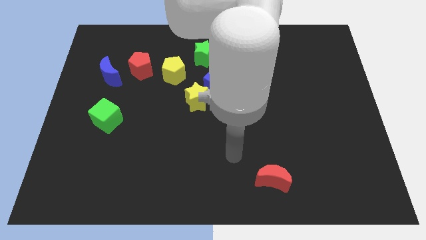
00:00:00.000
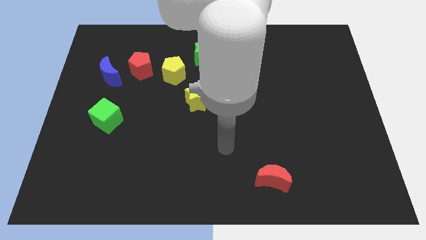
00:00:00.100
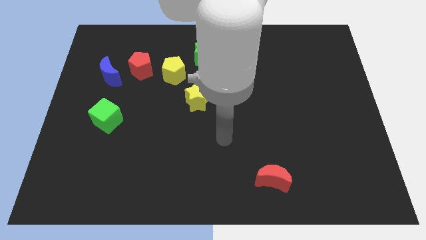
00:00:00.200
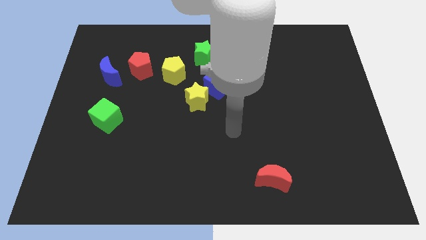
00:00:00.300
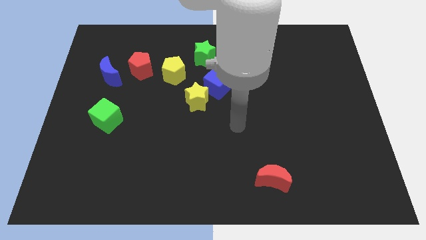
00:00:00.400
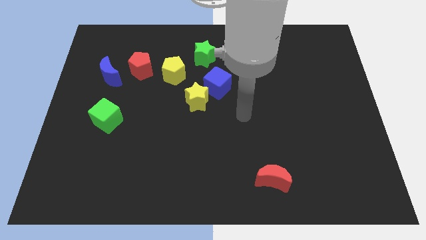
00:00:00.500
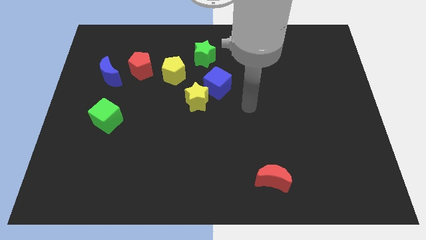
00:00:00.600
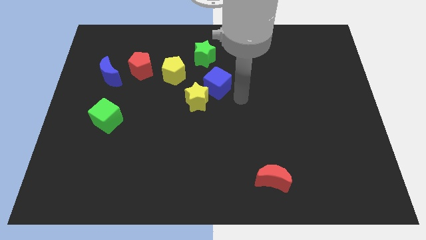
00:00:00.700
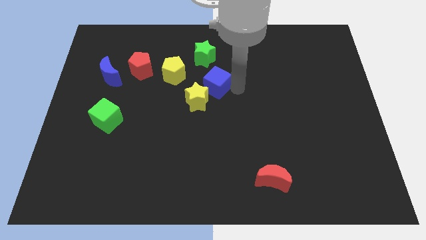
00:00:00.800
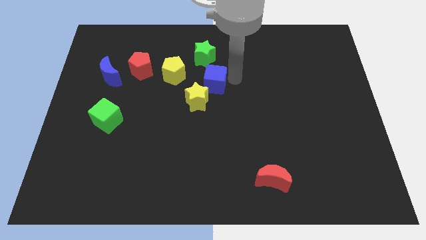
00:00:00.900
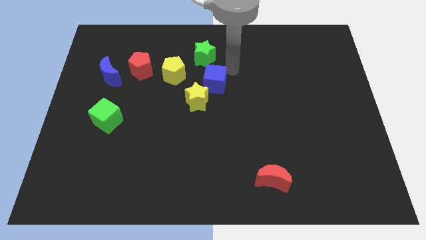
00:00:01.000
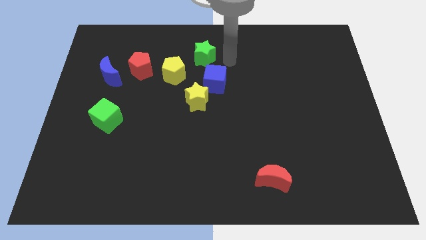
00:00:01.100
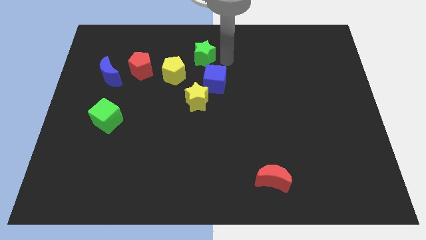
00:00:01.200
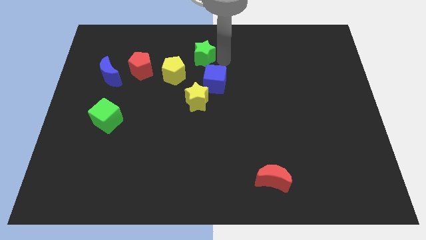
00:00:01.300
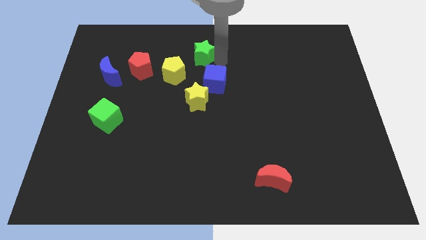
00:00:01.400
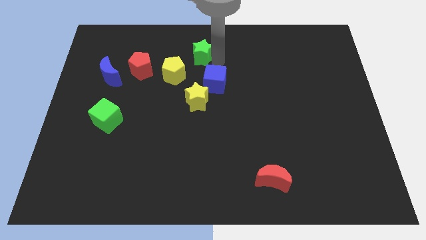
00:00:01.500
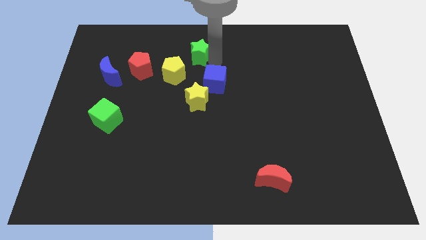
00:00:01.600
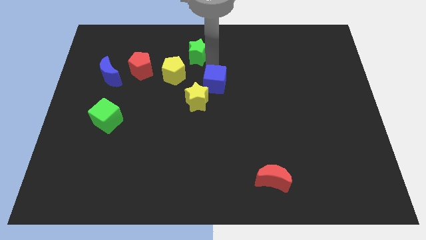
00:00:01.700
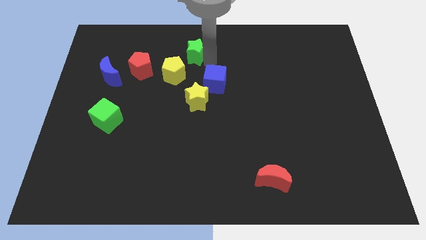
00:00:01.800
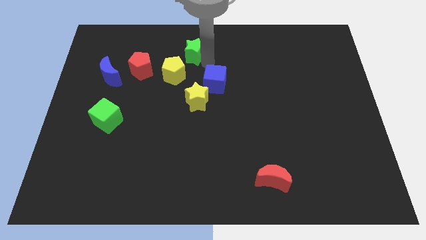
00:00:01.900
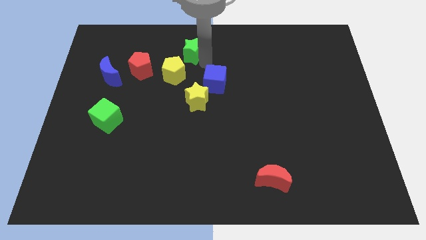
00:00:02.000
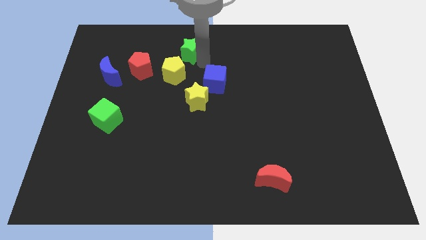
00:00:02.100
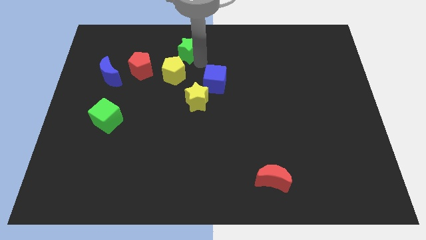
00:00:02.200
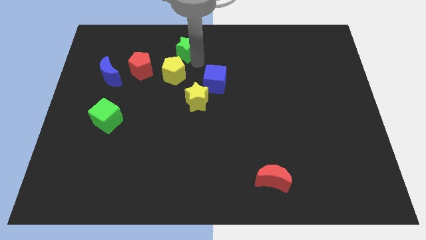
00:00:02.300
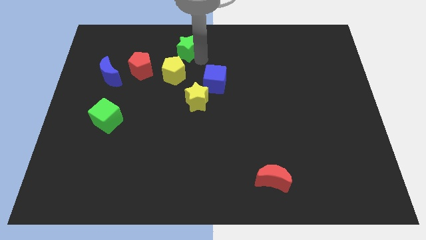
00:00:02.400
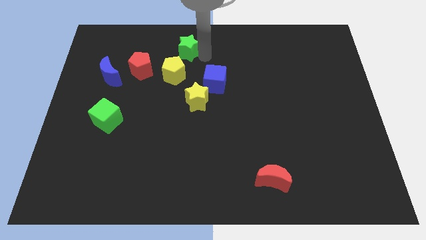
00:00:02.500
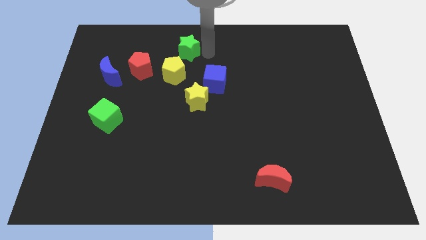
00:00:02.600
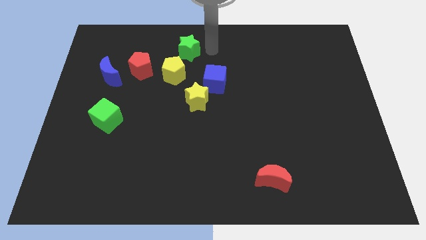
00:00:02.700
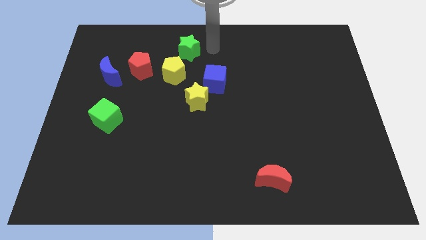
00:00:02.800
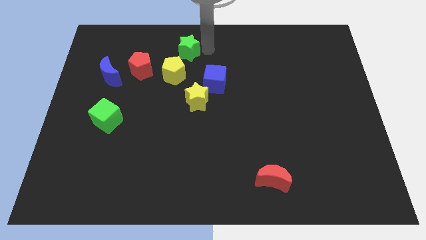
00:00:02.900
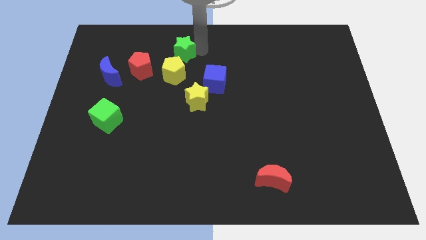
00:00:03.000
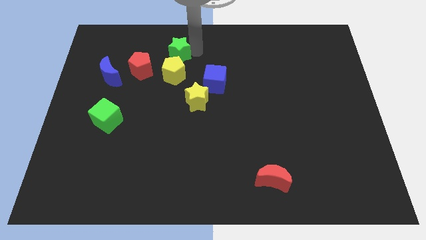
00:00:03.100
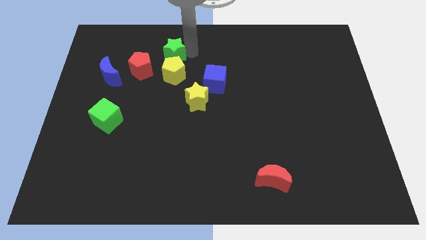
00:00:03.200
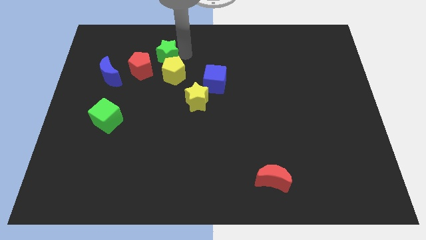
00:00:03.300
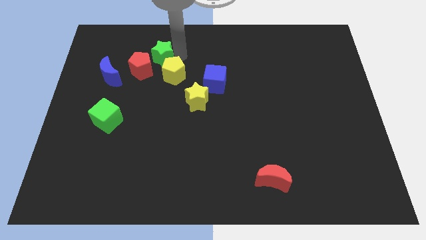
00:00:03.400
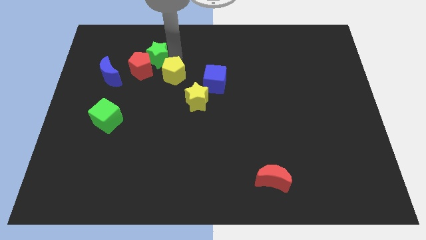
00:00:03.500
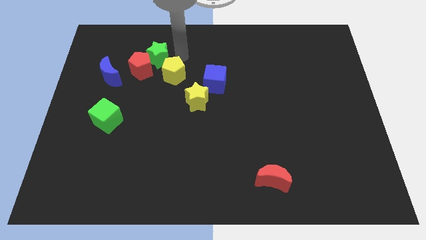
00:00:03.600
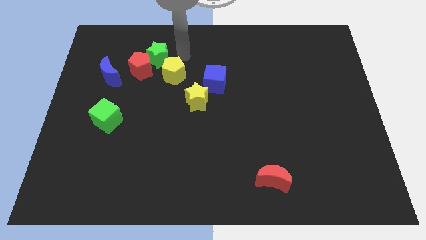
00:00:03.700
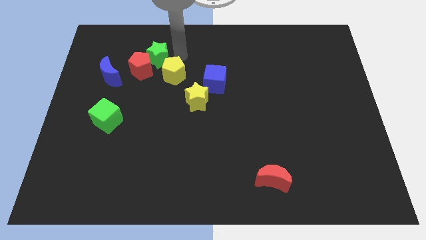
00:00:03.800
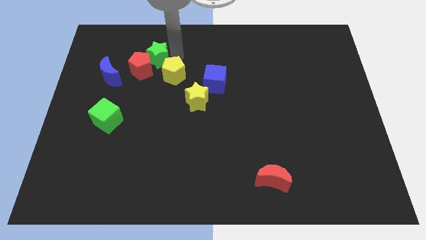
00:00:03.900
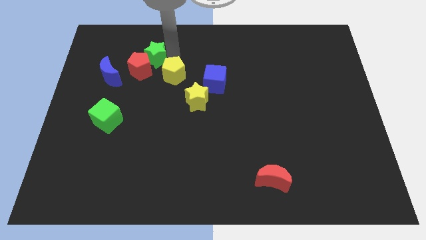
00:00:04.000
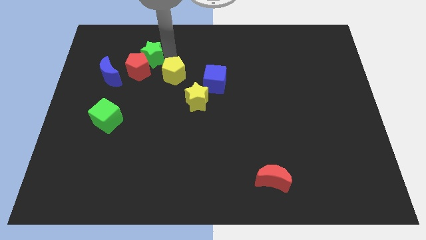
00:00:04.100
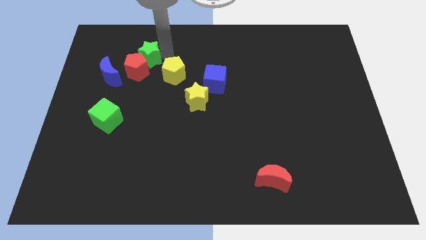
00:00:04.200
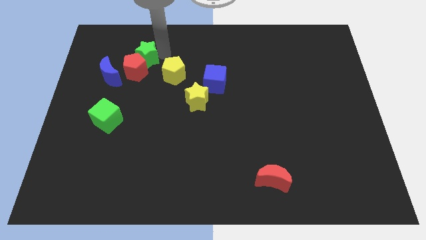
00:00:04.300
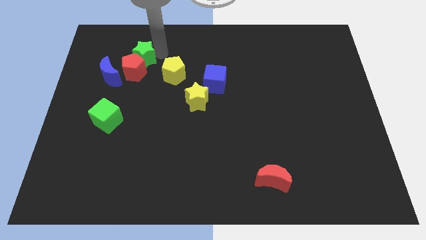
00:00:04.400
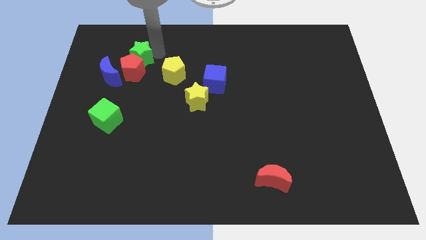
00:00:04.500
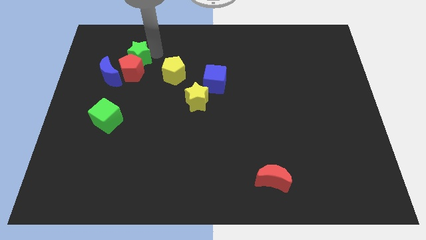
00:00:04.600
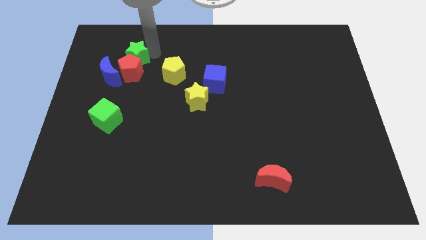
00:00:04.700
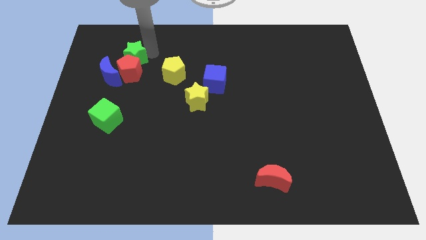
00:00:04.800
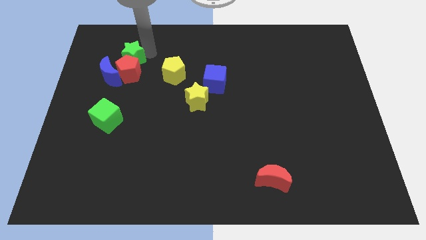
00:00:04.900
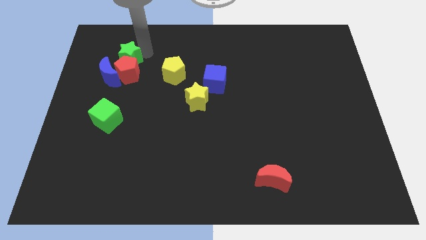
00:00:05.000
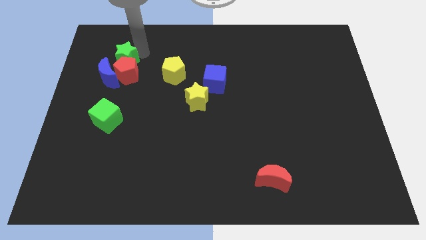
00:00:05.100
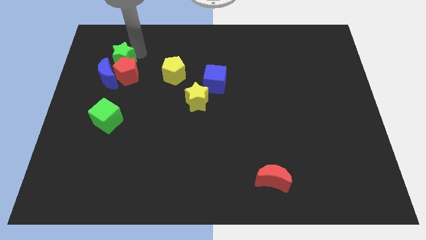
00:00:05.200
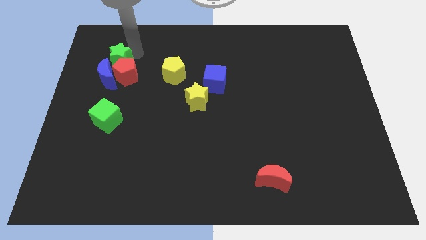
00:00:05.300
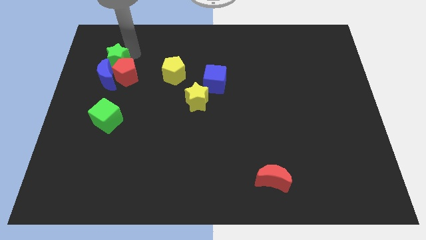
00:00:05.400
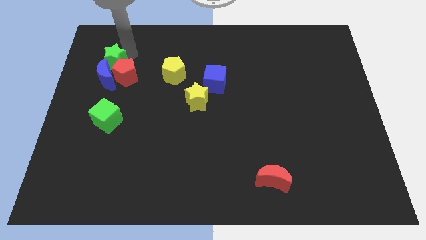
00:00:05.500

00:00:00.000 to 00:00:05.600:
slide the green star next to the blue moon

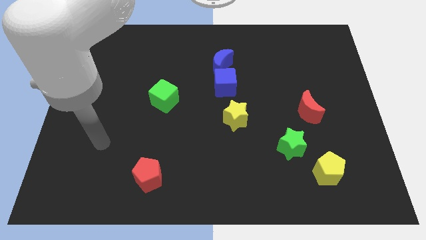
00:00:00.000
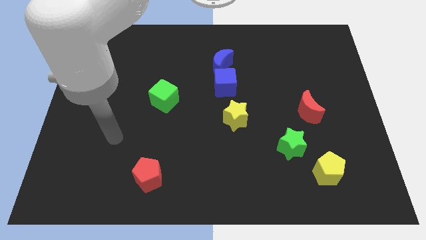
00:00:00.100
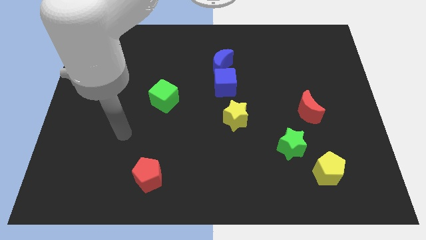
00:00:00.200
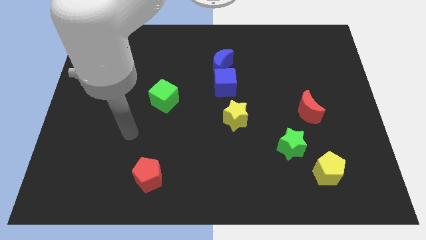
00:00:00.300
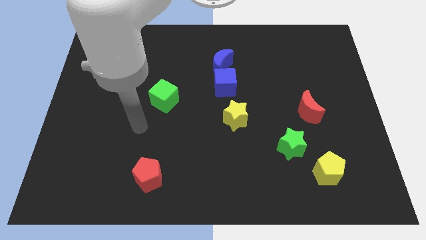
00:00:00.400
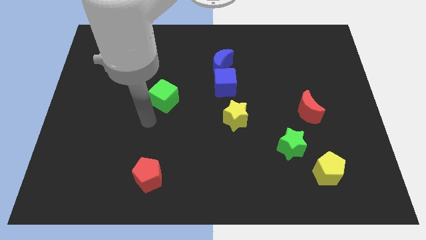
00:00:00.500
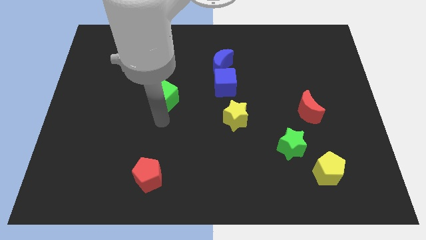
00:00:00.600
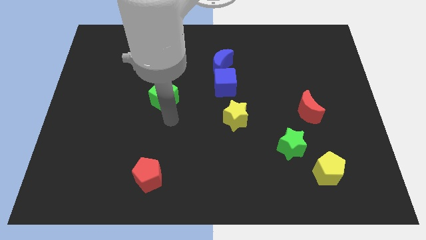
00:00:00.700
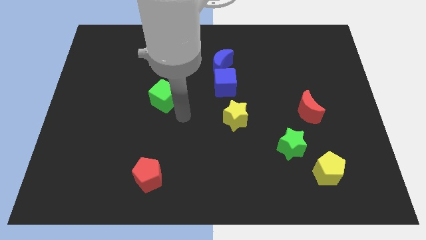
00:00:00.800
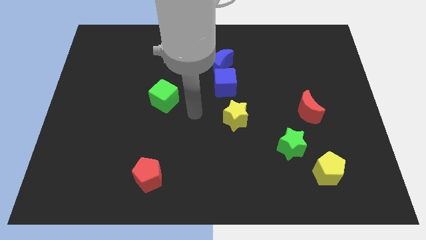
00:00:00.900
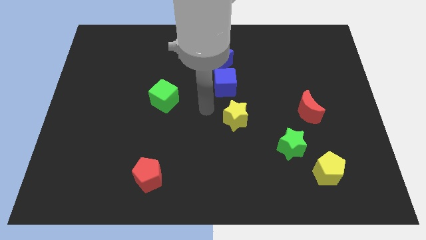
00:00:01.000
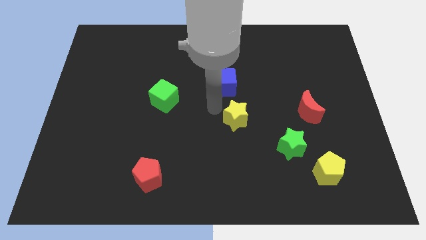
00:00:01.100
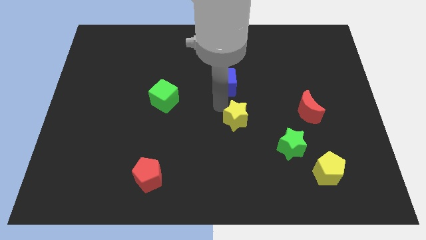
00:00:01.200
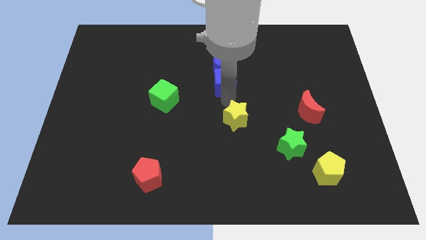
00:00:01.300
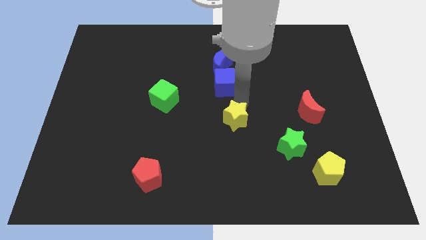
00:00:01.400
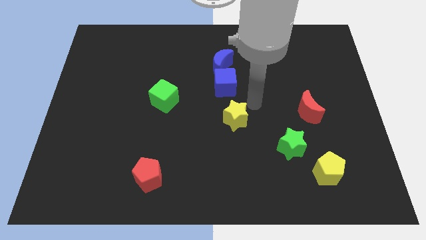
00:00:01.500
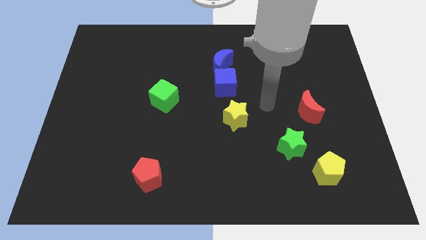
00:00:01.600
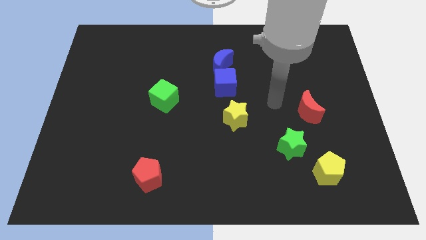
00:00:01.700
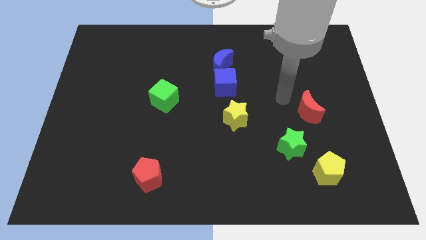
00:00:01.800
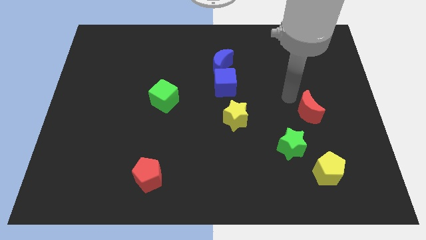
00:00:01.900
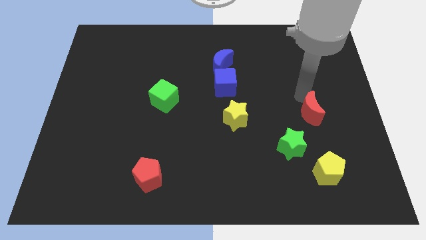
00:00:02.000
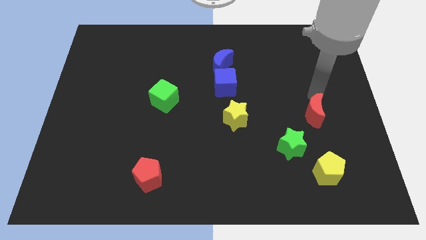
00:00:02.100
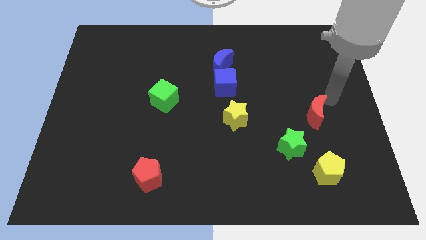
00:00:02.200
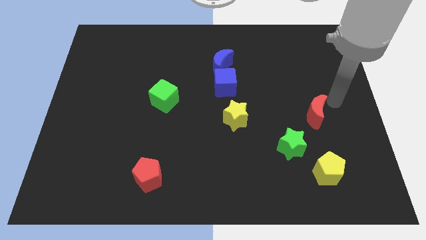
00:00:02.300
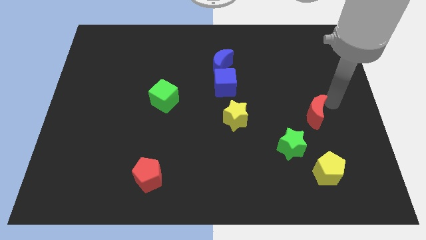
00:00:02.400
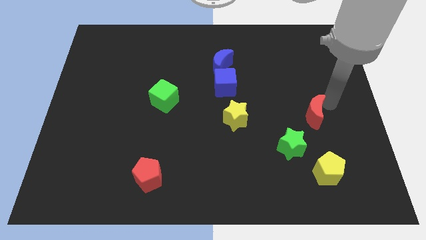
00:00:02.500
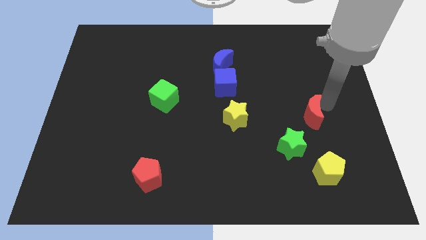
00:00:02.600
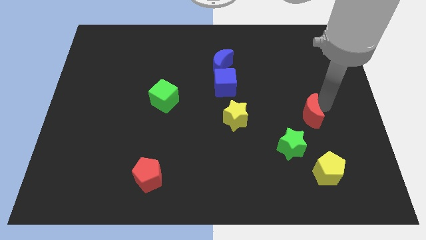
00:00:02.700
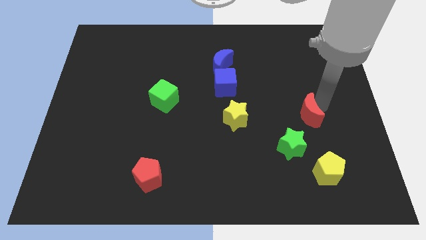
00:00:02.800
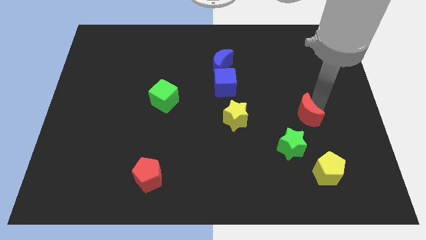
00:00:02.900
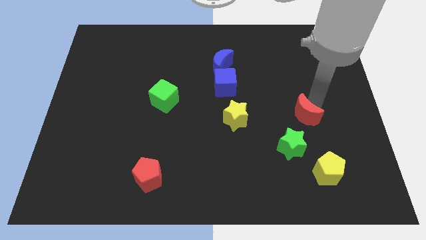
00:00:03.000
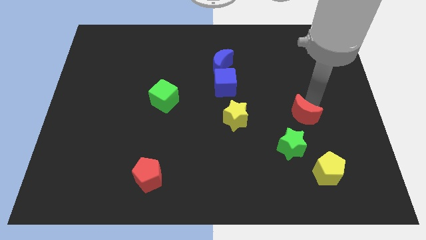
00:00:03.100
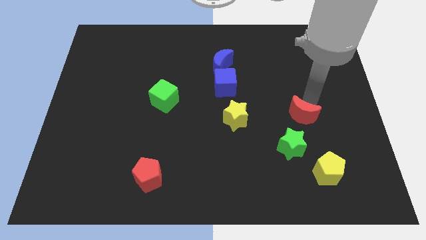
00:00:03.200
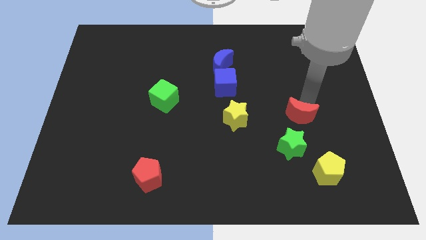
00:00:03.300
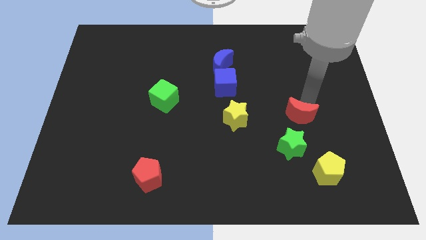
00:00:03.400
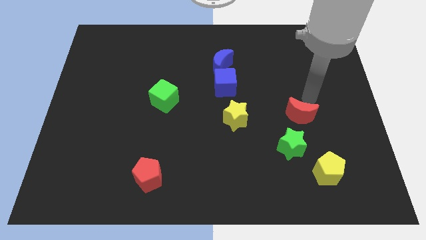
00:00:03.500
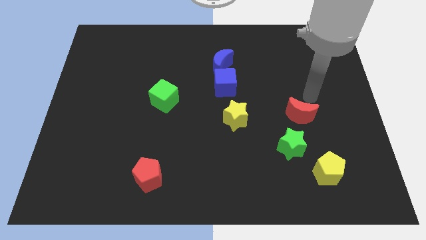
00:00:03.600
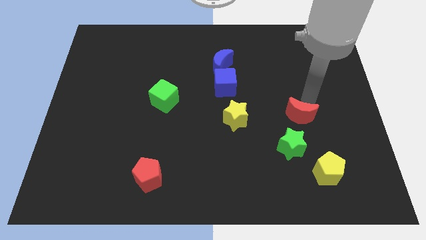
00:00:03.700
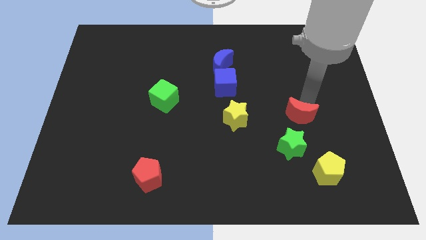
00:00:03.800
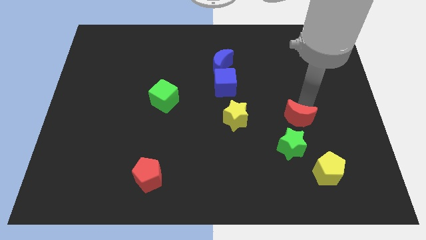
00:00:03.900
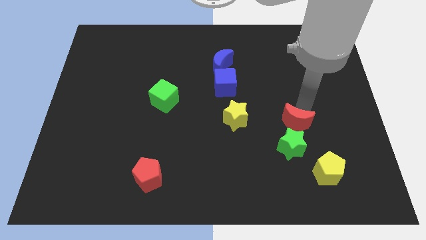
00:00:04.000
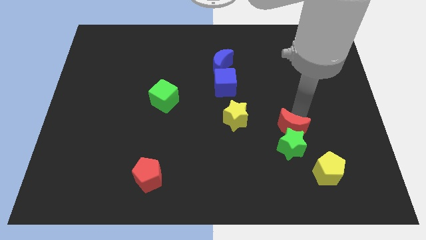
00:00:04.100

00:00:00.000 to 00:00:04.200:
slide the red moon next to the green star
